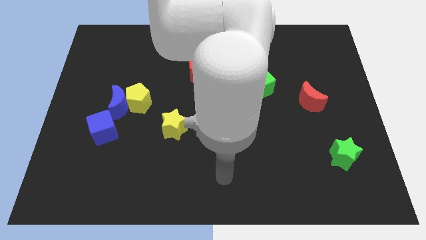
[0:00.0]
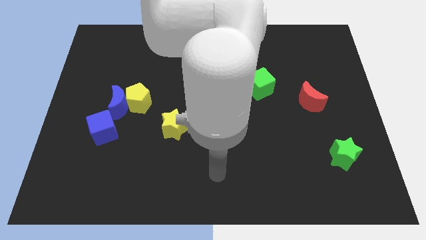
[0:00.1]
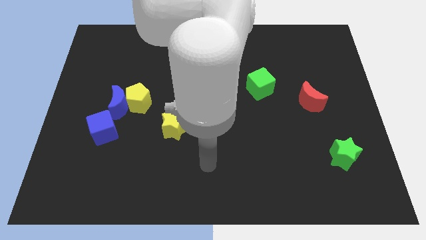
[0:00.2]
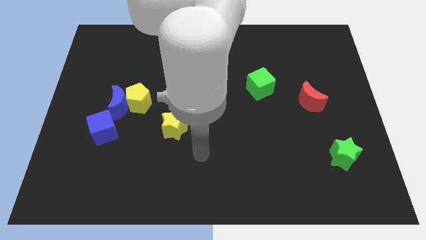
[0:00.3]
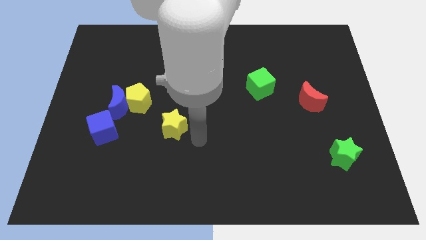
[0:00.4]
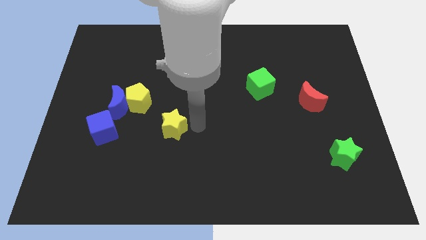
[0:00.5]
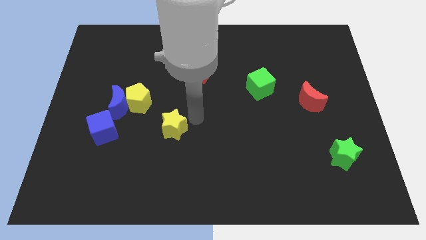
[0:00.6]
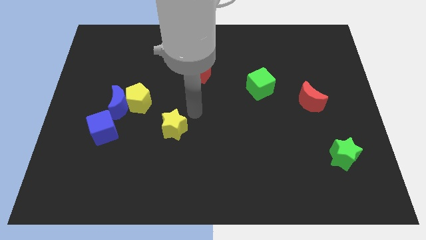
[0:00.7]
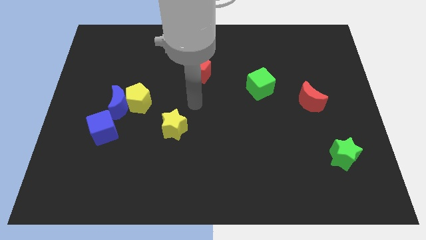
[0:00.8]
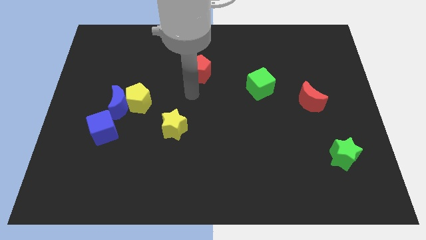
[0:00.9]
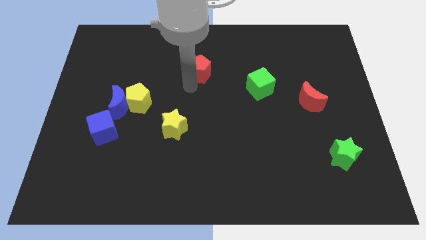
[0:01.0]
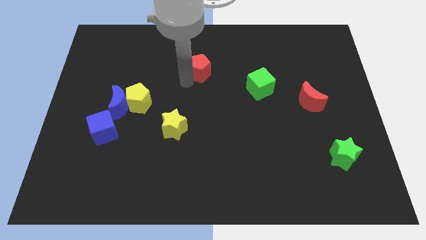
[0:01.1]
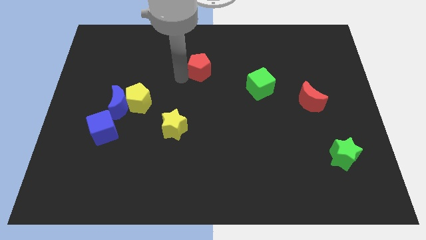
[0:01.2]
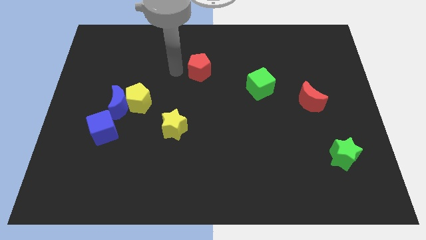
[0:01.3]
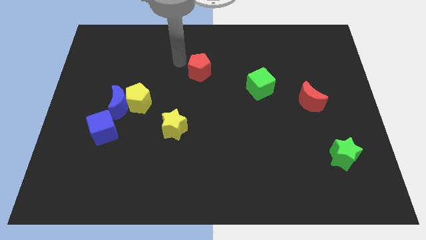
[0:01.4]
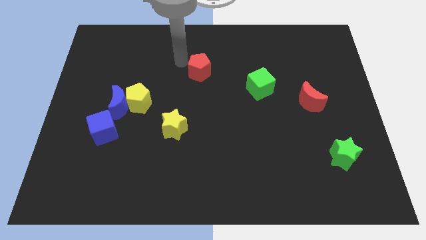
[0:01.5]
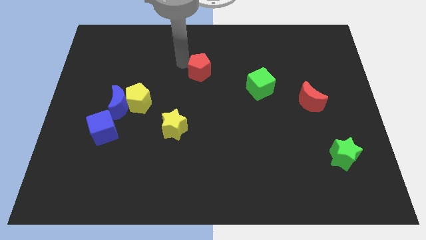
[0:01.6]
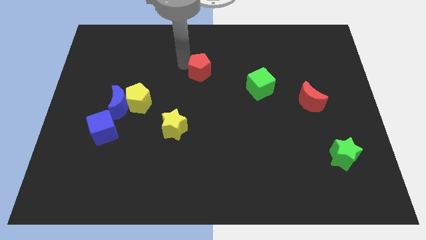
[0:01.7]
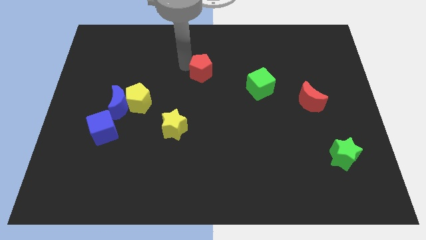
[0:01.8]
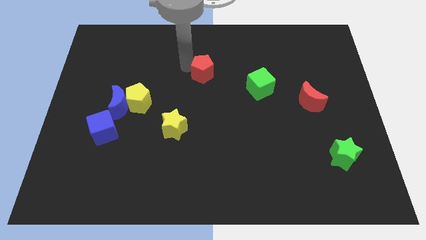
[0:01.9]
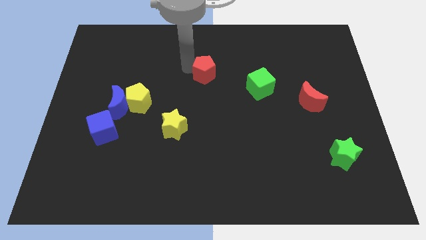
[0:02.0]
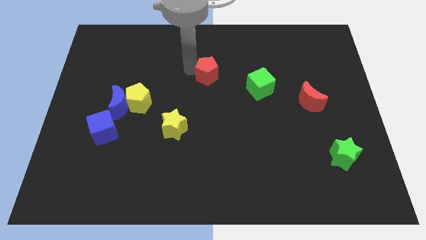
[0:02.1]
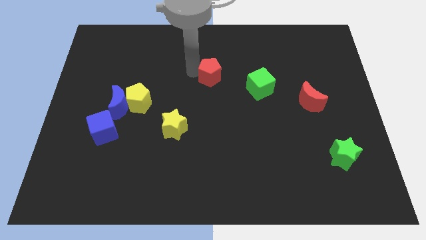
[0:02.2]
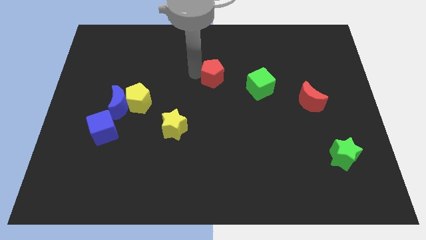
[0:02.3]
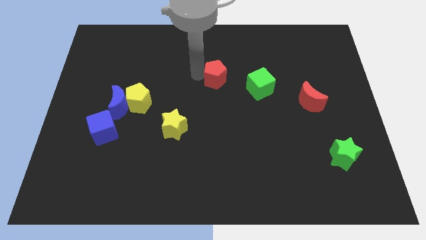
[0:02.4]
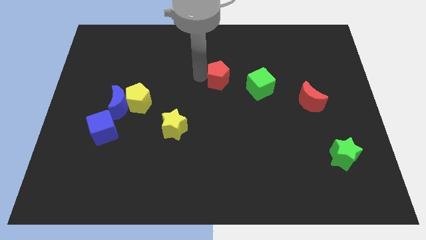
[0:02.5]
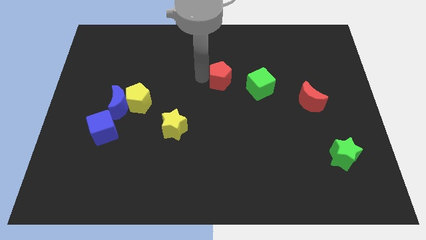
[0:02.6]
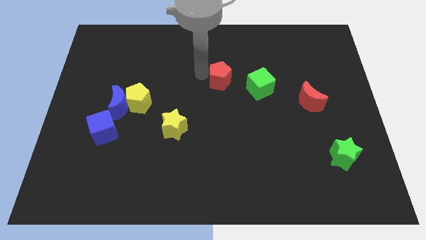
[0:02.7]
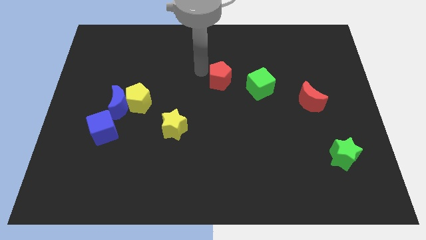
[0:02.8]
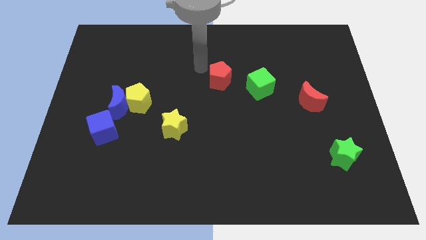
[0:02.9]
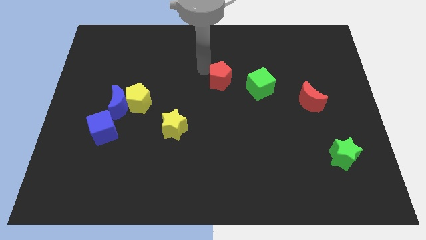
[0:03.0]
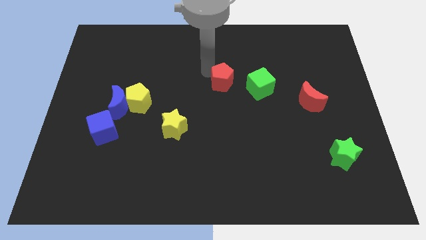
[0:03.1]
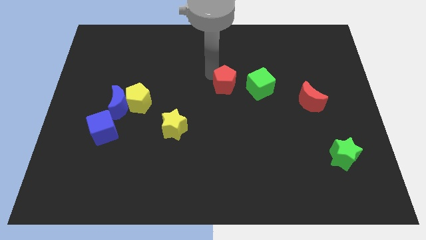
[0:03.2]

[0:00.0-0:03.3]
move the red pentagon down and to the right somewhat

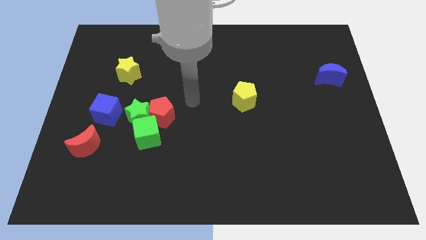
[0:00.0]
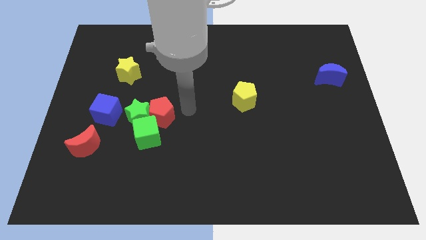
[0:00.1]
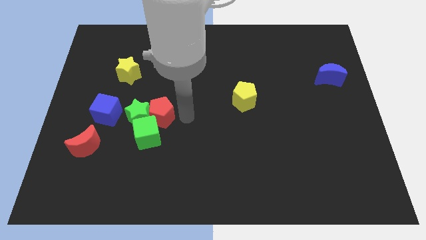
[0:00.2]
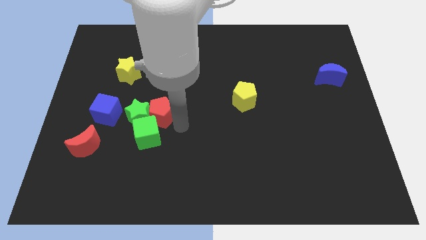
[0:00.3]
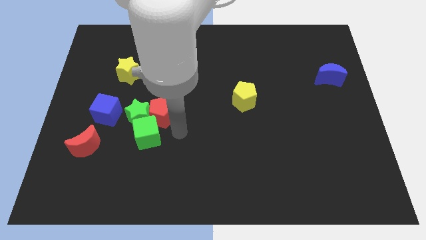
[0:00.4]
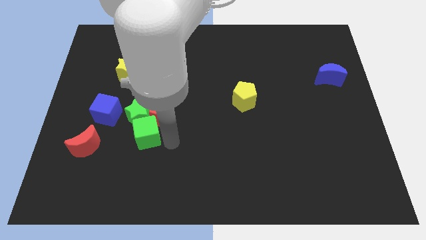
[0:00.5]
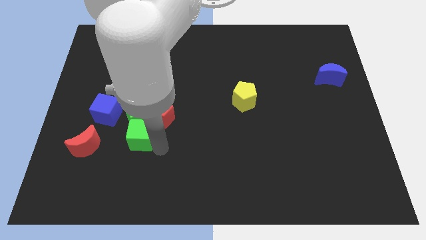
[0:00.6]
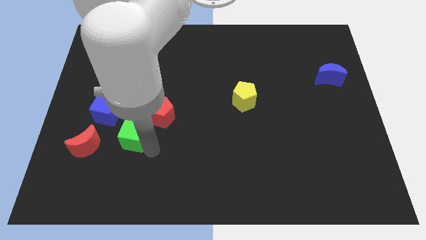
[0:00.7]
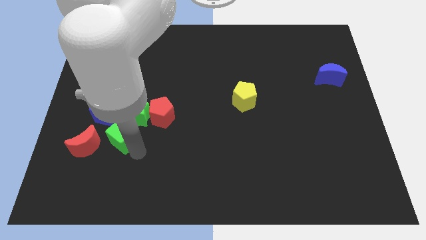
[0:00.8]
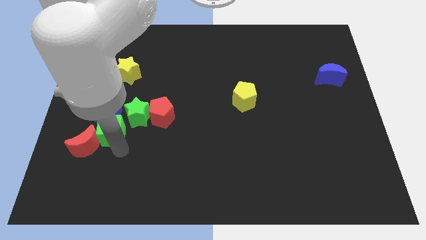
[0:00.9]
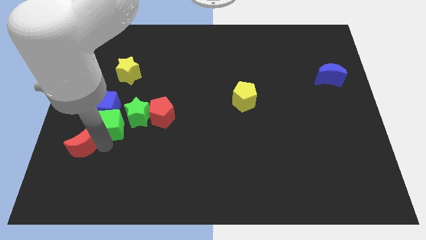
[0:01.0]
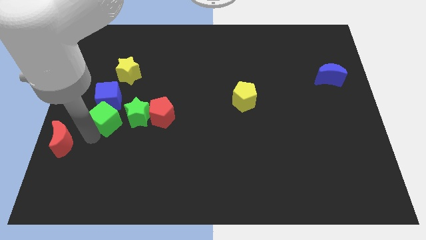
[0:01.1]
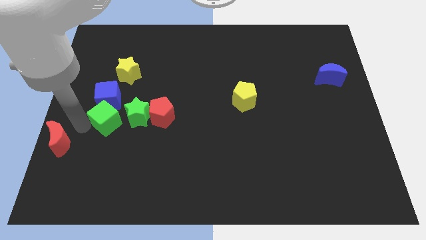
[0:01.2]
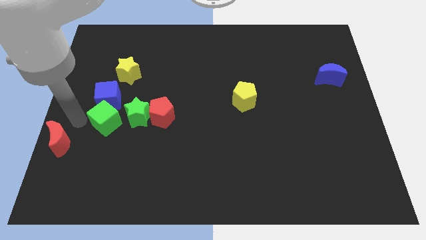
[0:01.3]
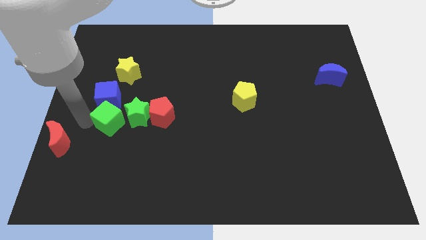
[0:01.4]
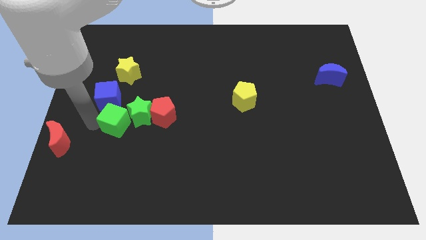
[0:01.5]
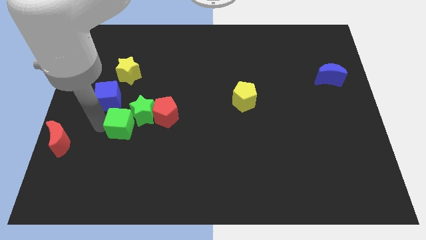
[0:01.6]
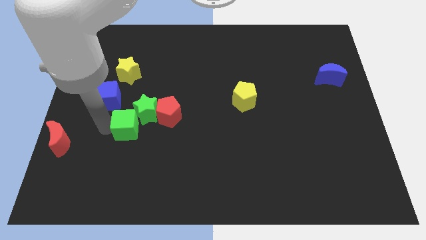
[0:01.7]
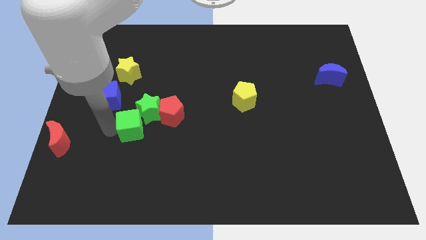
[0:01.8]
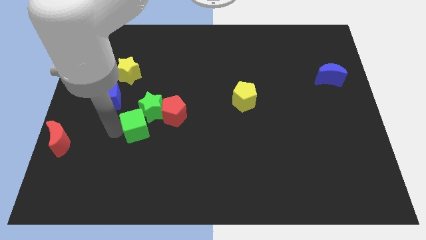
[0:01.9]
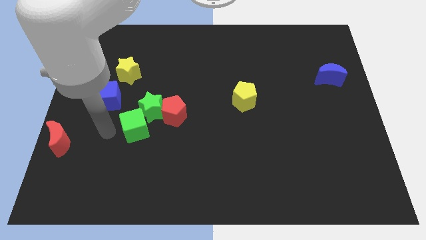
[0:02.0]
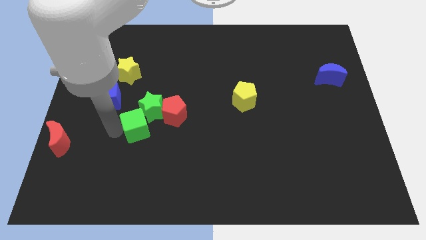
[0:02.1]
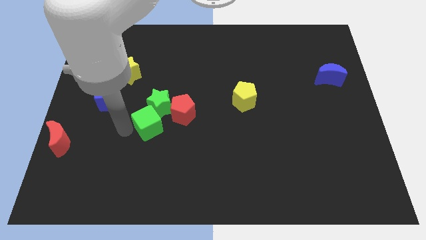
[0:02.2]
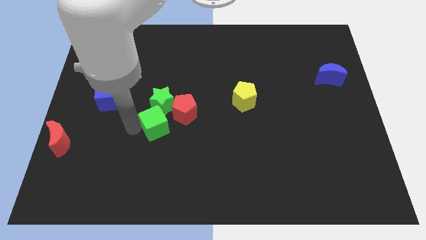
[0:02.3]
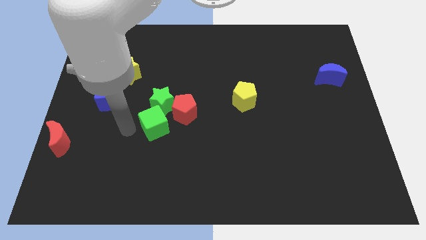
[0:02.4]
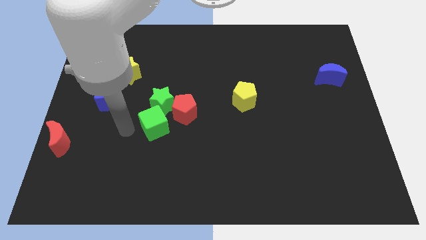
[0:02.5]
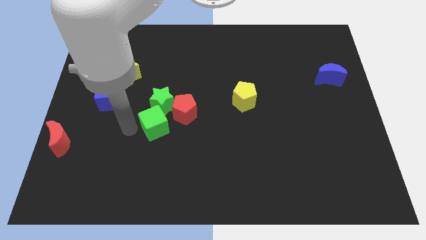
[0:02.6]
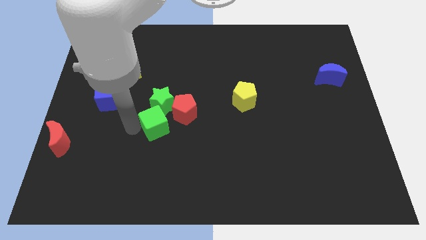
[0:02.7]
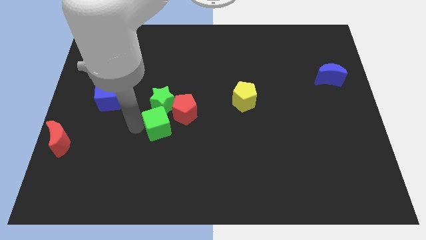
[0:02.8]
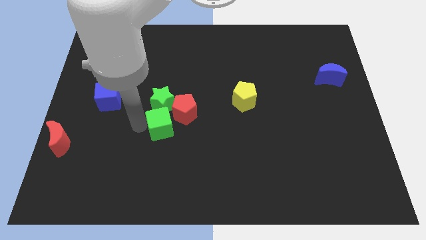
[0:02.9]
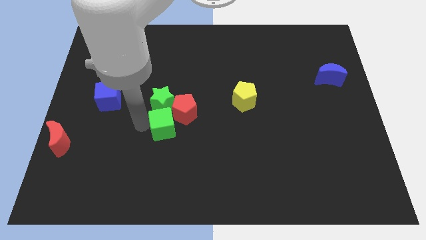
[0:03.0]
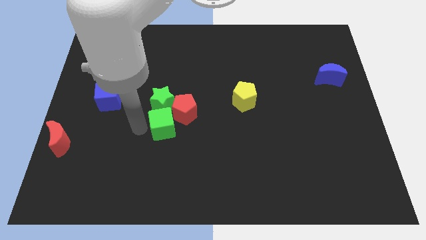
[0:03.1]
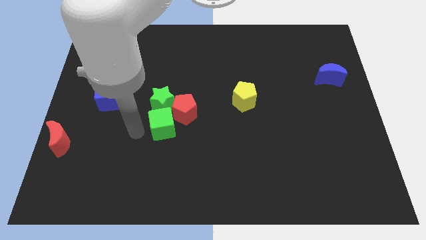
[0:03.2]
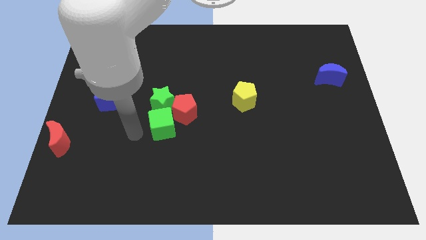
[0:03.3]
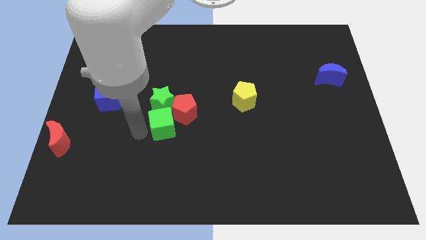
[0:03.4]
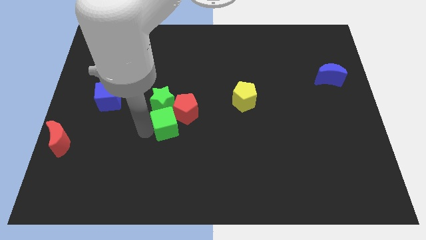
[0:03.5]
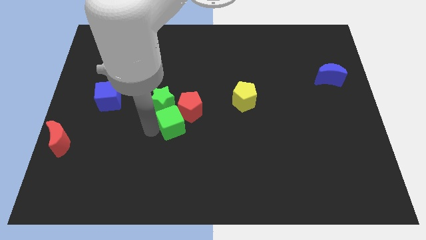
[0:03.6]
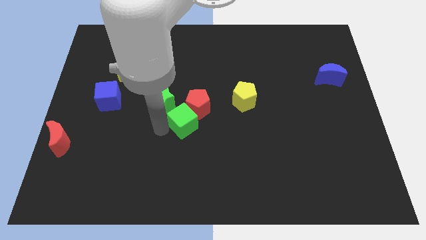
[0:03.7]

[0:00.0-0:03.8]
slightly move the green cube up and right

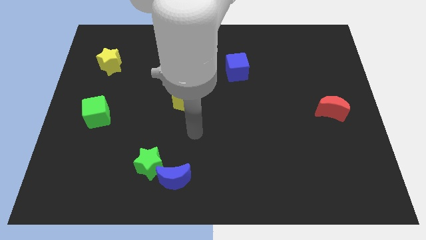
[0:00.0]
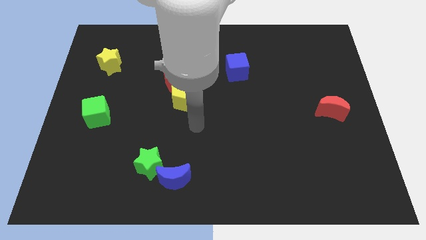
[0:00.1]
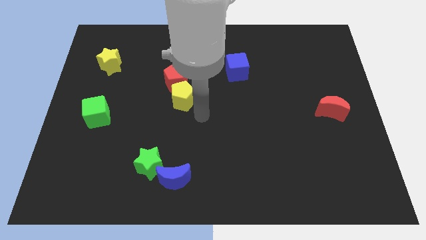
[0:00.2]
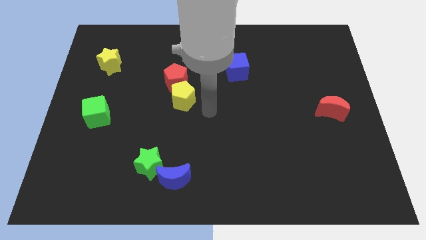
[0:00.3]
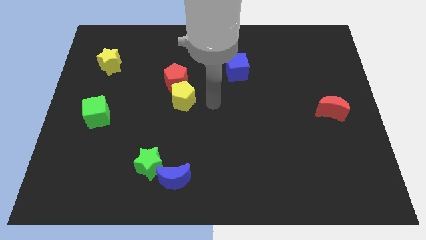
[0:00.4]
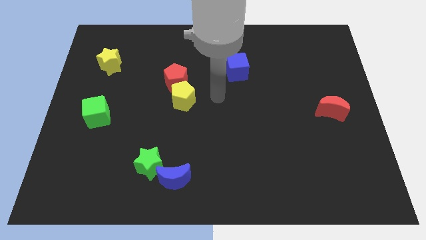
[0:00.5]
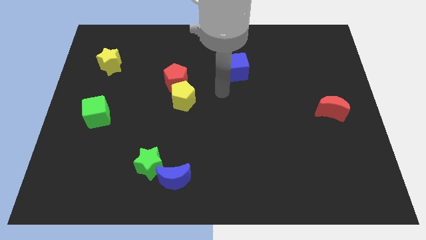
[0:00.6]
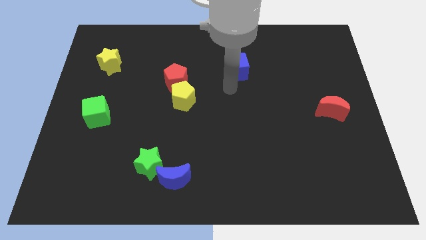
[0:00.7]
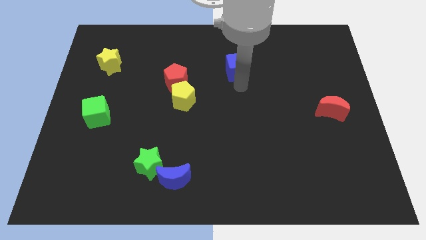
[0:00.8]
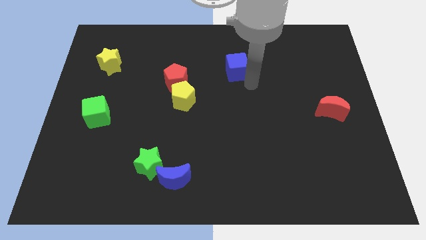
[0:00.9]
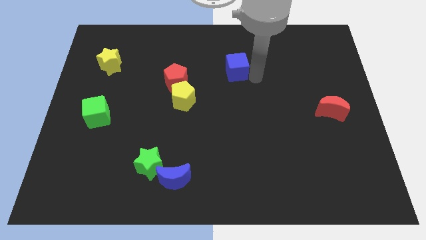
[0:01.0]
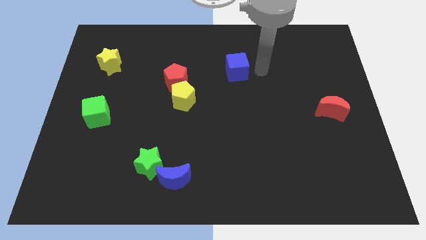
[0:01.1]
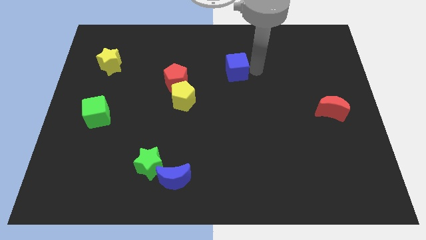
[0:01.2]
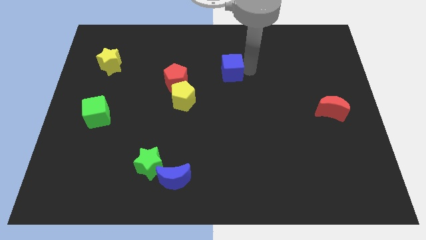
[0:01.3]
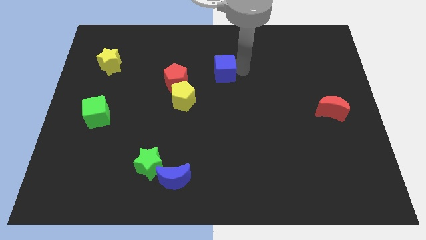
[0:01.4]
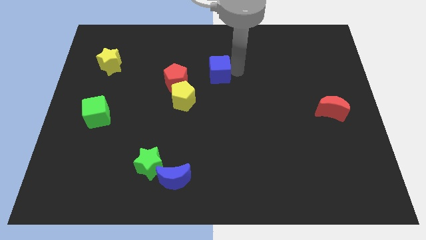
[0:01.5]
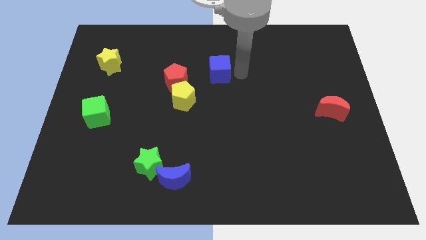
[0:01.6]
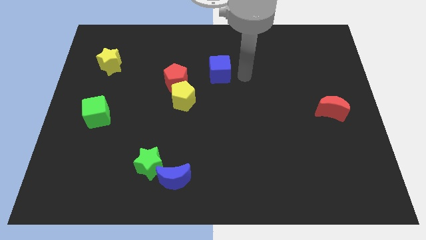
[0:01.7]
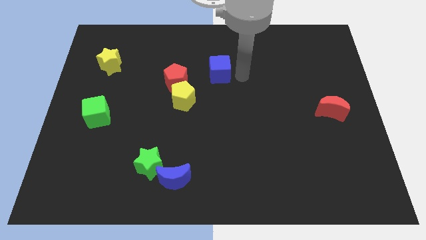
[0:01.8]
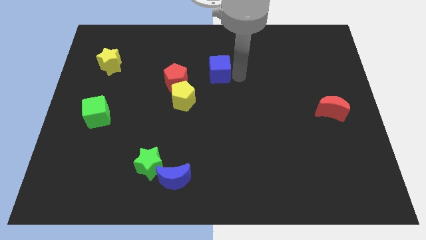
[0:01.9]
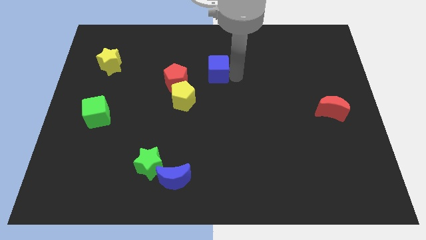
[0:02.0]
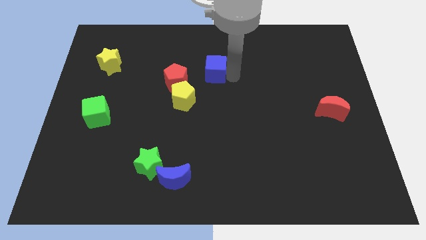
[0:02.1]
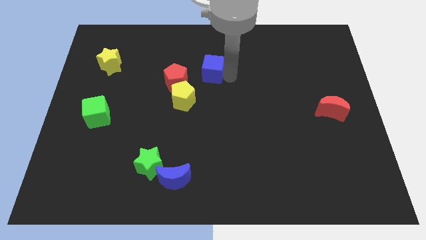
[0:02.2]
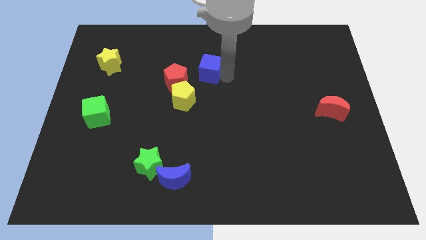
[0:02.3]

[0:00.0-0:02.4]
push the blue cube a little to the left
